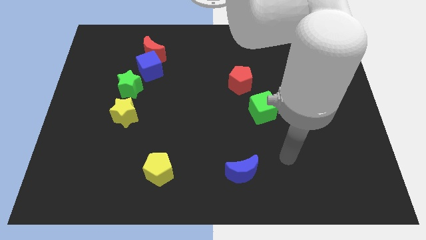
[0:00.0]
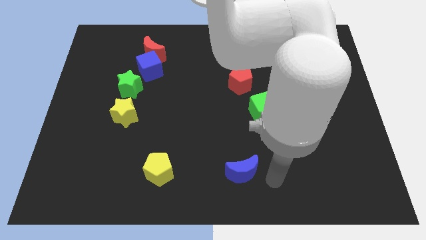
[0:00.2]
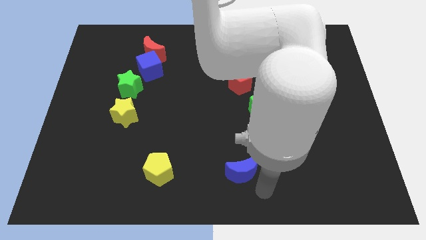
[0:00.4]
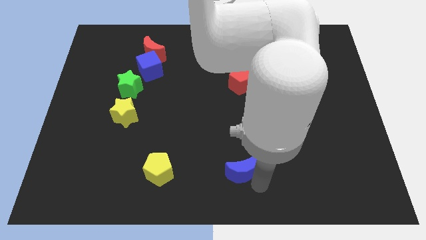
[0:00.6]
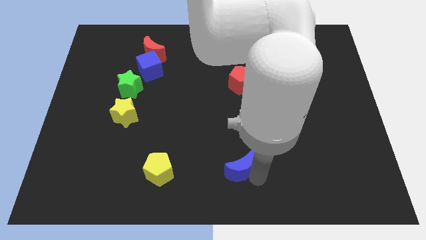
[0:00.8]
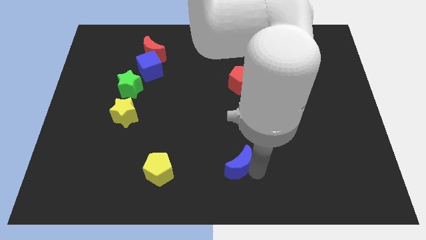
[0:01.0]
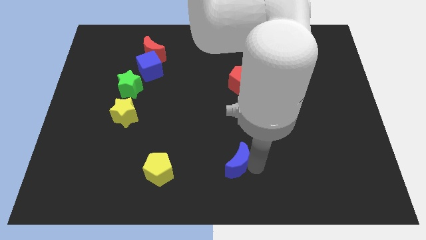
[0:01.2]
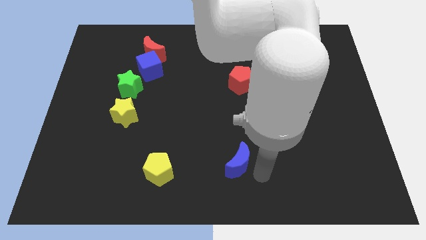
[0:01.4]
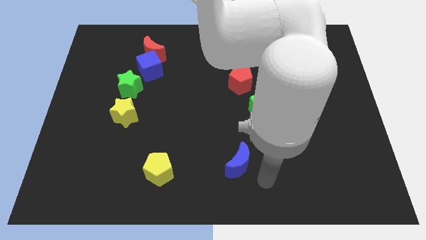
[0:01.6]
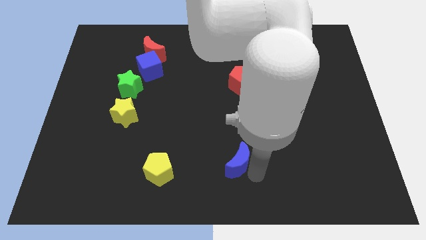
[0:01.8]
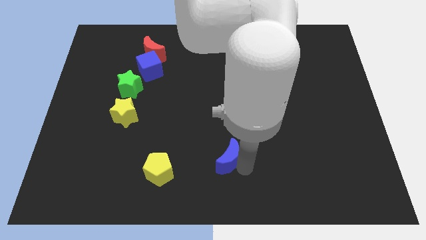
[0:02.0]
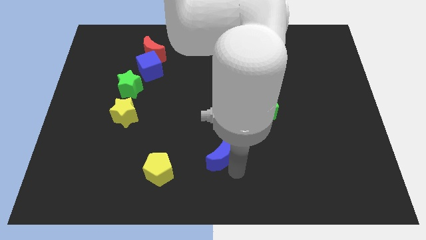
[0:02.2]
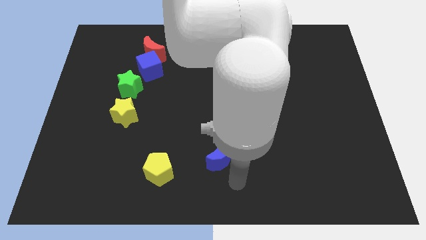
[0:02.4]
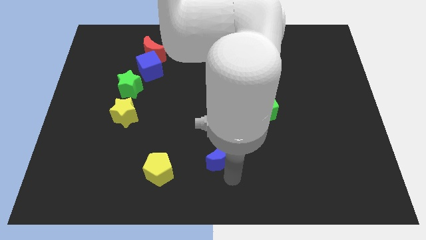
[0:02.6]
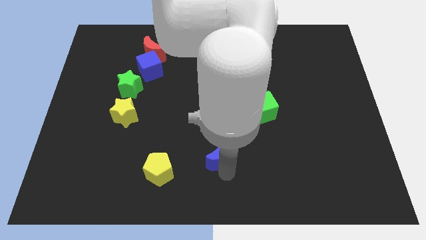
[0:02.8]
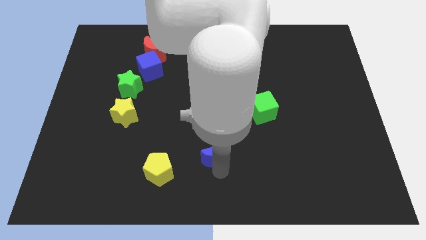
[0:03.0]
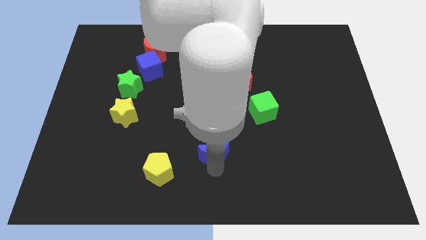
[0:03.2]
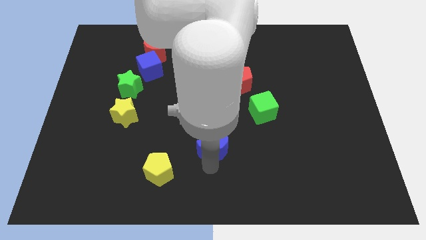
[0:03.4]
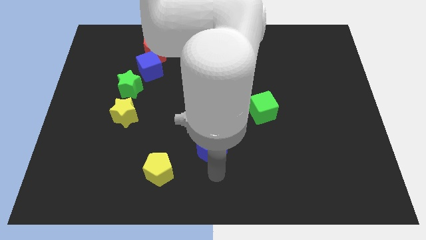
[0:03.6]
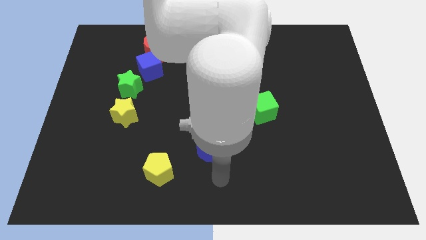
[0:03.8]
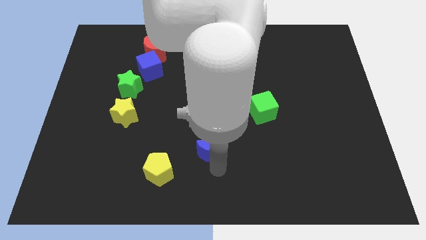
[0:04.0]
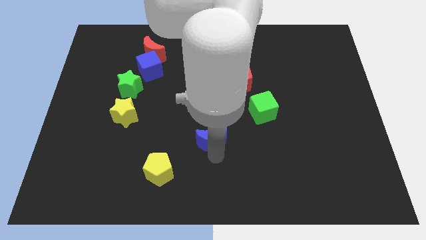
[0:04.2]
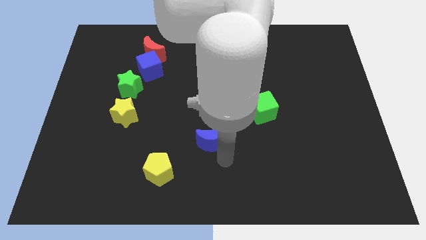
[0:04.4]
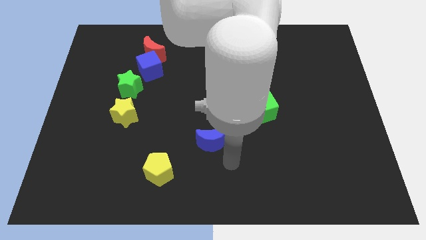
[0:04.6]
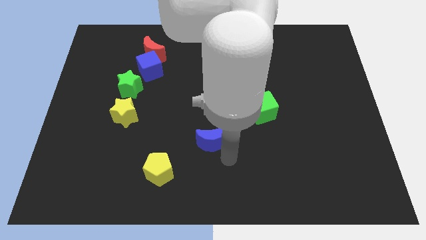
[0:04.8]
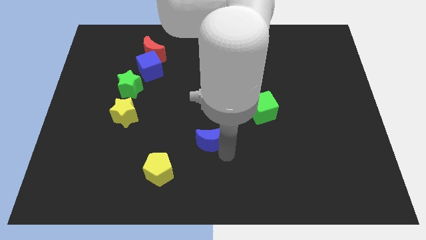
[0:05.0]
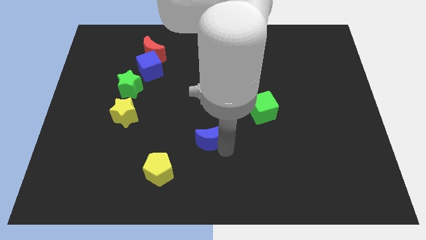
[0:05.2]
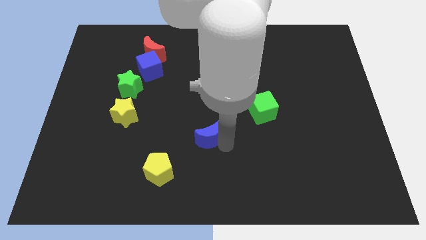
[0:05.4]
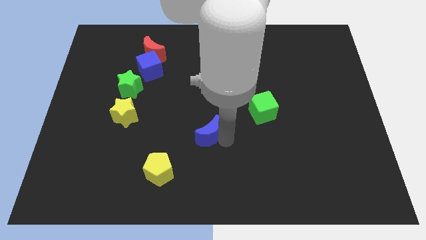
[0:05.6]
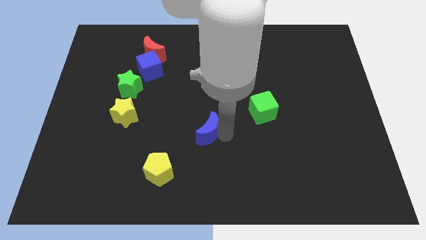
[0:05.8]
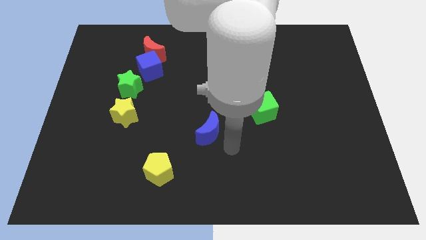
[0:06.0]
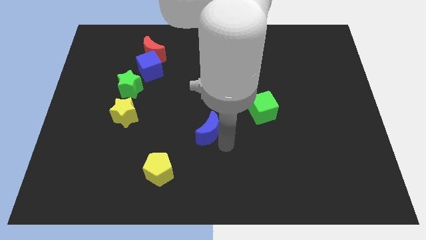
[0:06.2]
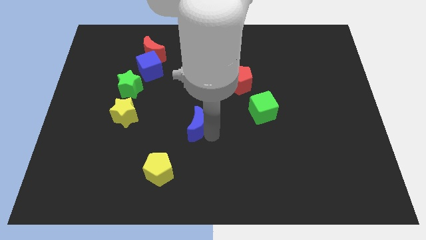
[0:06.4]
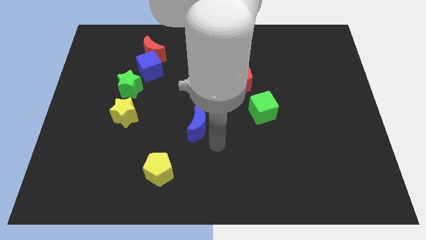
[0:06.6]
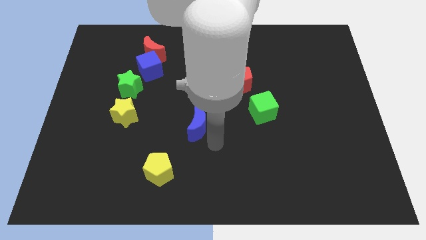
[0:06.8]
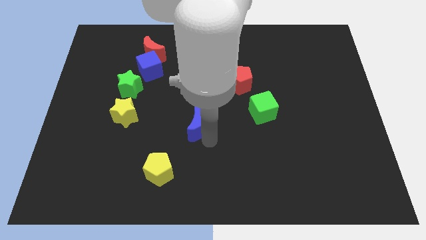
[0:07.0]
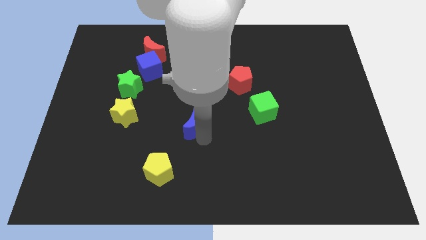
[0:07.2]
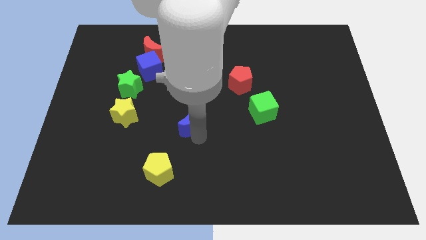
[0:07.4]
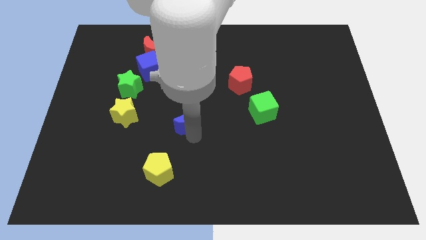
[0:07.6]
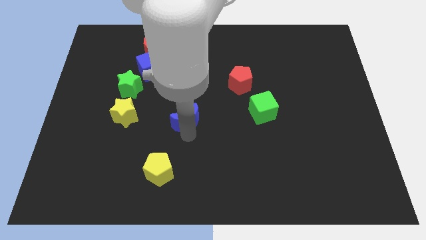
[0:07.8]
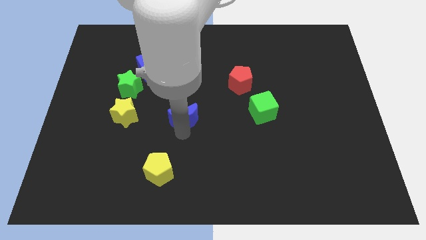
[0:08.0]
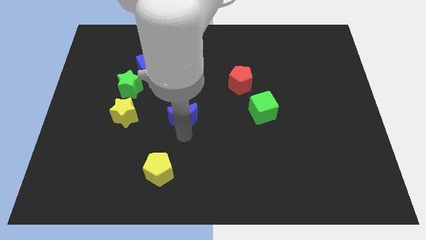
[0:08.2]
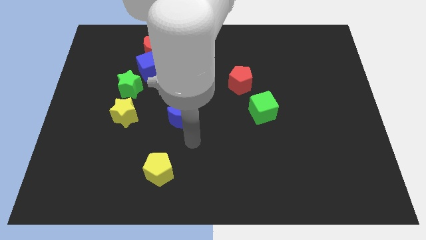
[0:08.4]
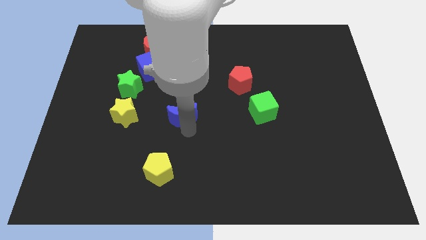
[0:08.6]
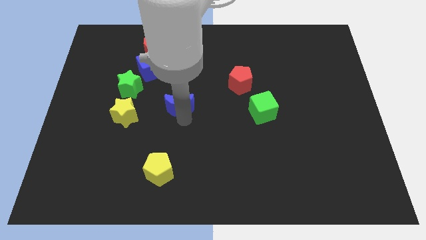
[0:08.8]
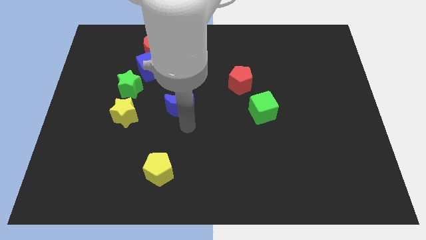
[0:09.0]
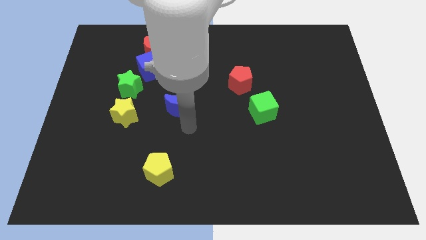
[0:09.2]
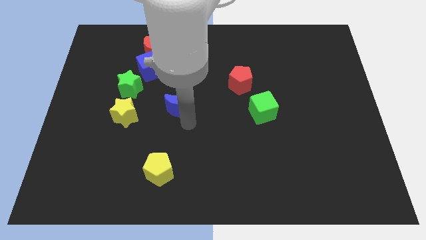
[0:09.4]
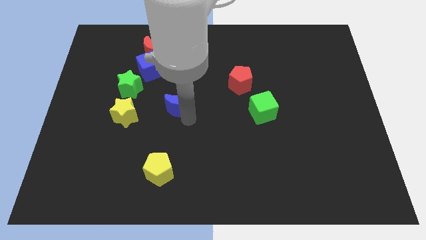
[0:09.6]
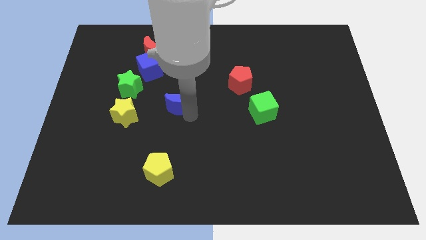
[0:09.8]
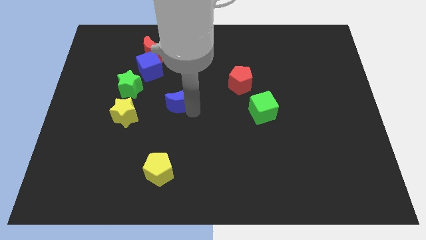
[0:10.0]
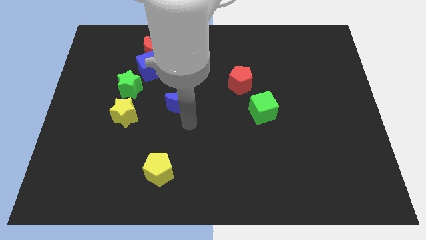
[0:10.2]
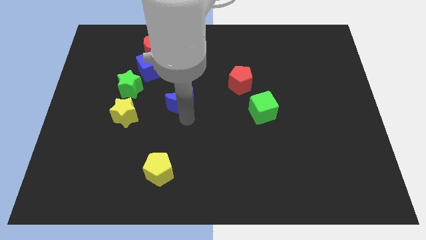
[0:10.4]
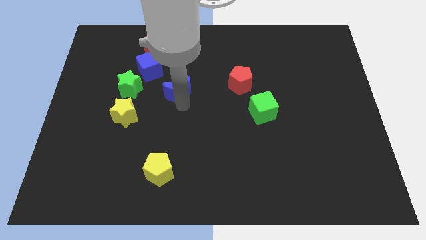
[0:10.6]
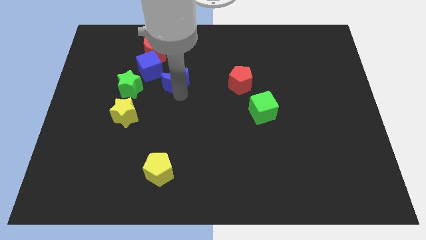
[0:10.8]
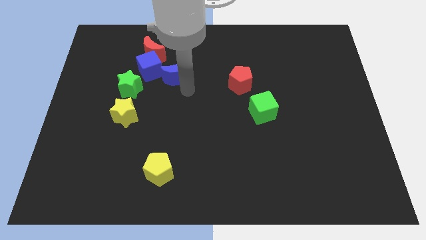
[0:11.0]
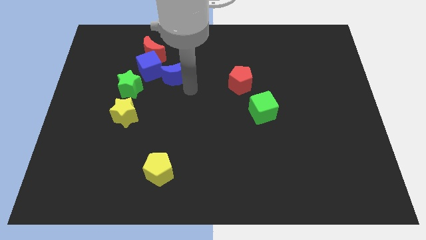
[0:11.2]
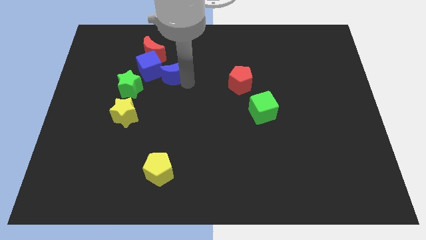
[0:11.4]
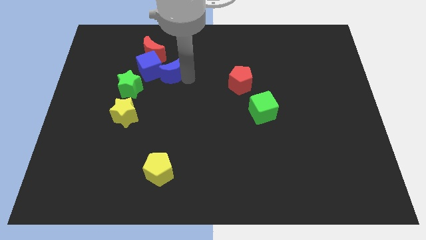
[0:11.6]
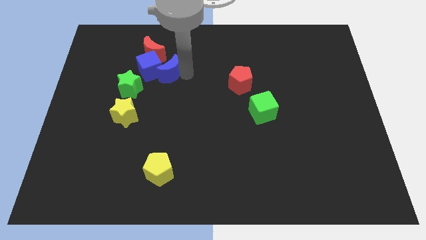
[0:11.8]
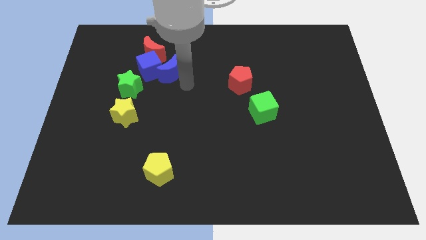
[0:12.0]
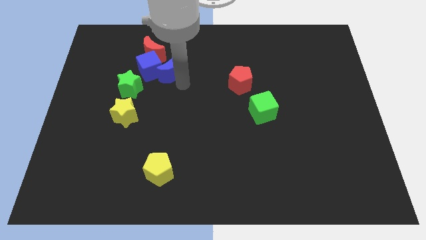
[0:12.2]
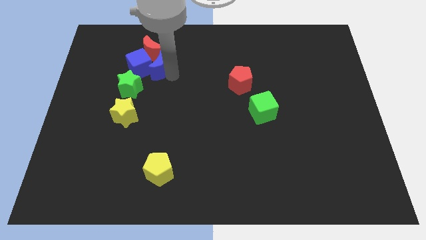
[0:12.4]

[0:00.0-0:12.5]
move the blue moon to the red moon
